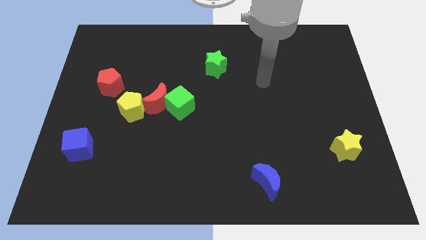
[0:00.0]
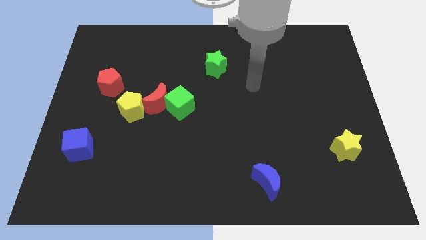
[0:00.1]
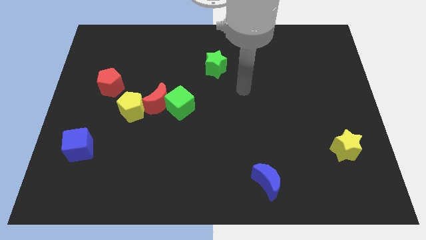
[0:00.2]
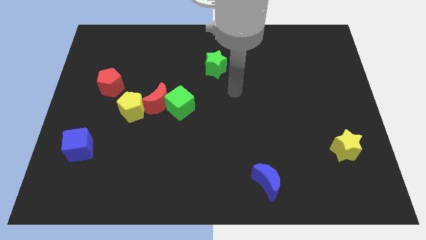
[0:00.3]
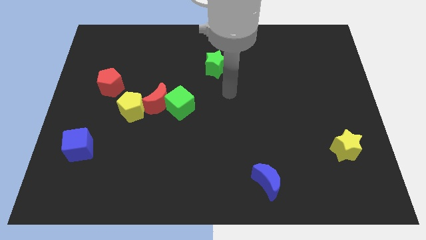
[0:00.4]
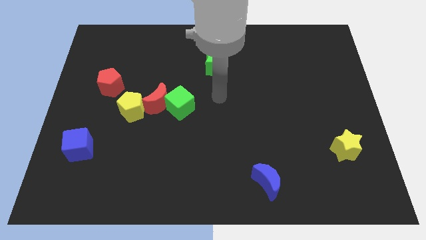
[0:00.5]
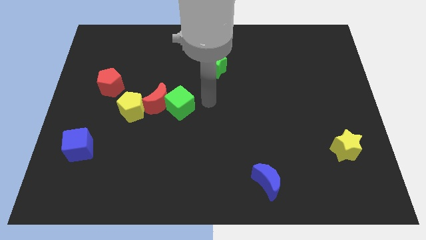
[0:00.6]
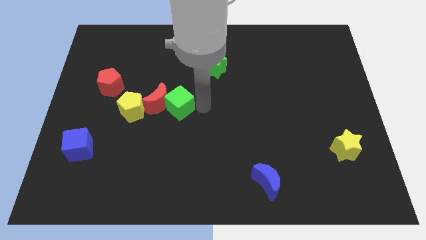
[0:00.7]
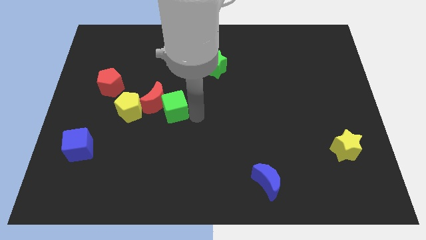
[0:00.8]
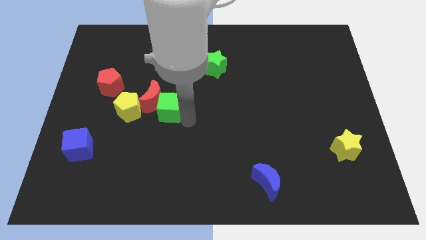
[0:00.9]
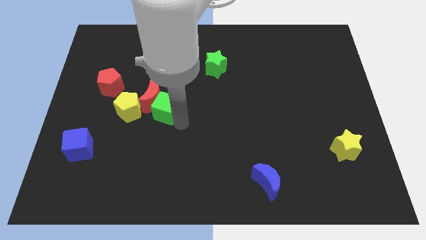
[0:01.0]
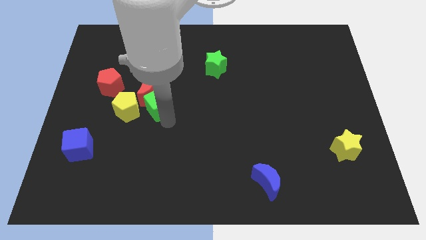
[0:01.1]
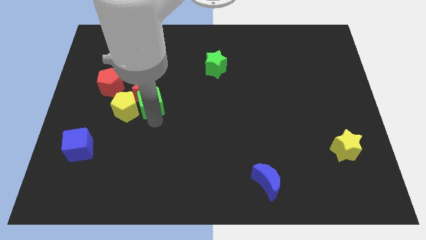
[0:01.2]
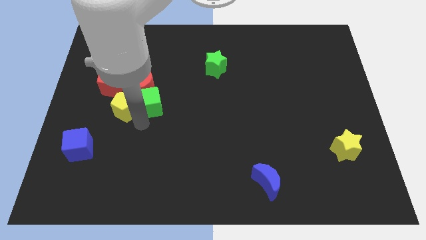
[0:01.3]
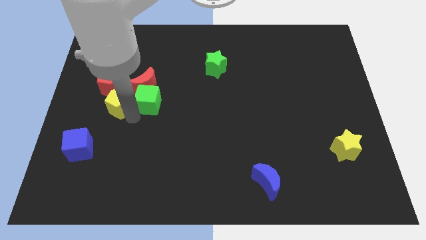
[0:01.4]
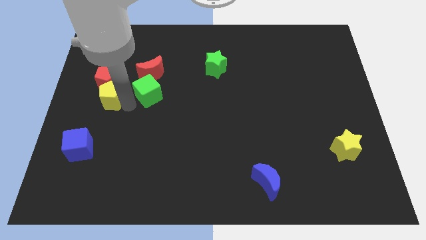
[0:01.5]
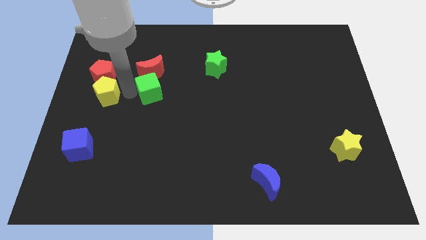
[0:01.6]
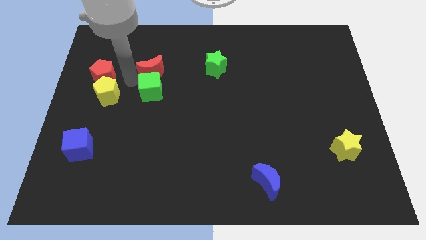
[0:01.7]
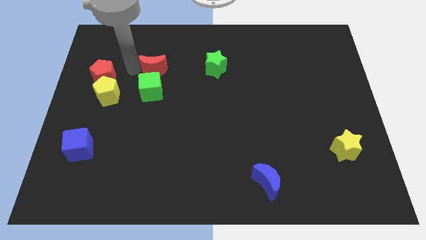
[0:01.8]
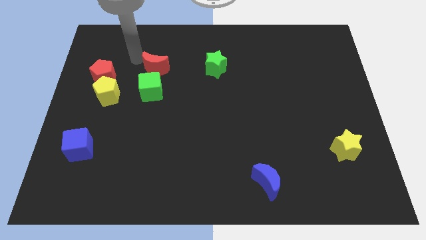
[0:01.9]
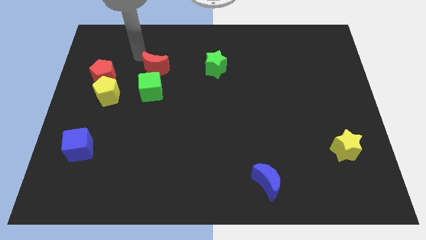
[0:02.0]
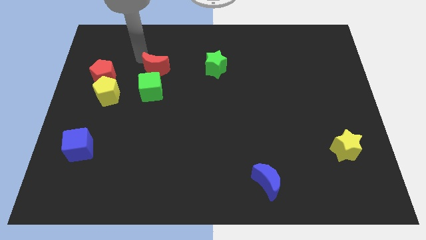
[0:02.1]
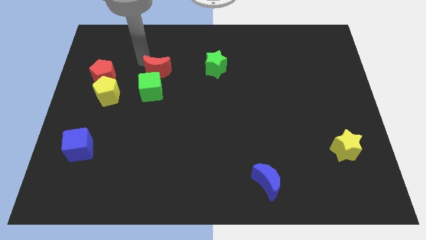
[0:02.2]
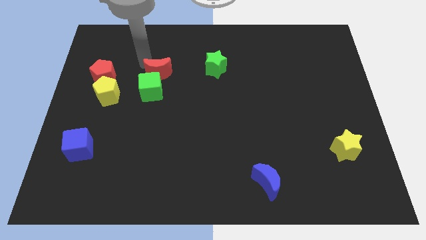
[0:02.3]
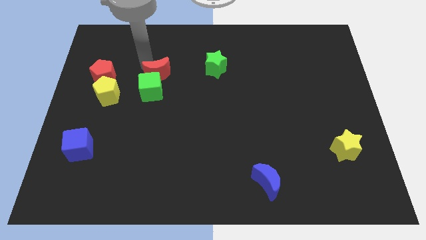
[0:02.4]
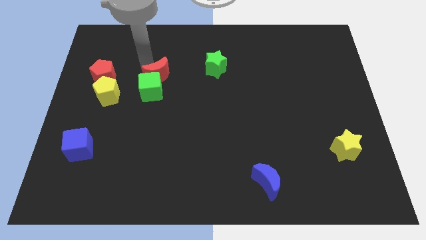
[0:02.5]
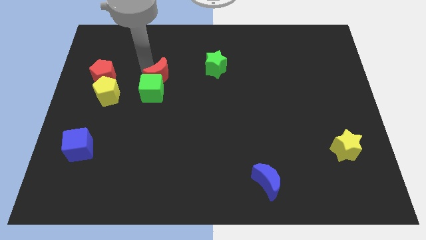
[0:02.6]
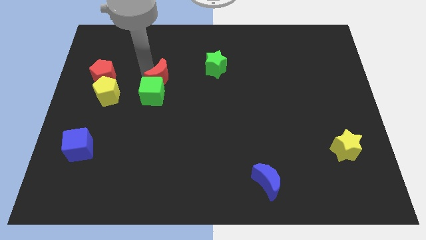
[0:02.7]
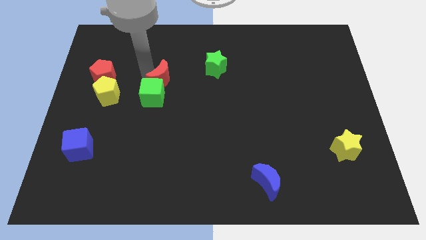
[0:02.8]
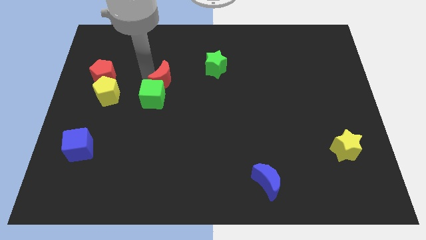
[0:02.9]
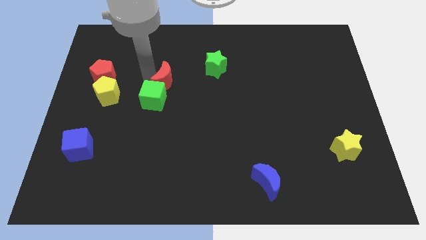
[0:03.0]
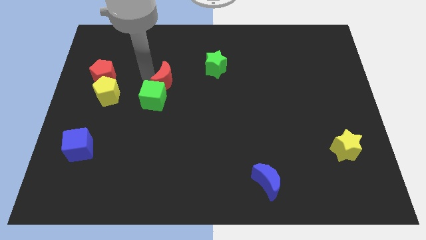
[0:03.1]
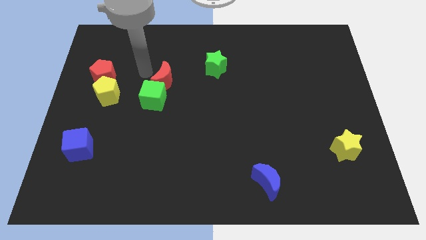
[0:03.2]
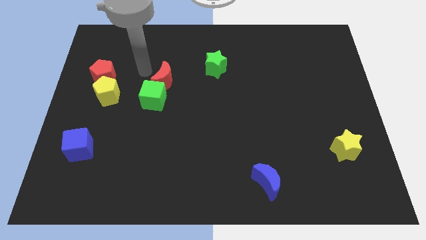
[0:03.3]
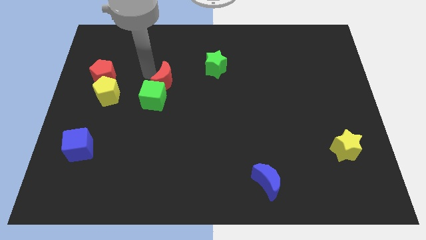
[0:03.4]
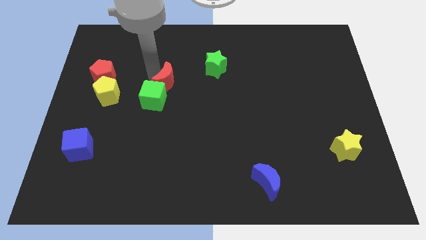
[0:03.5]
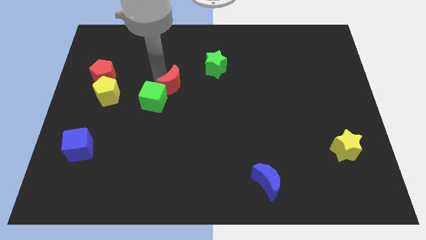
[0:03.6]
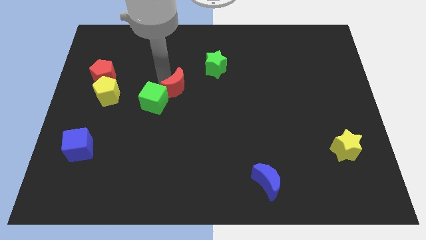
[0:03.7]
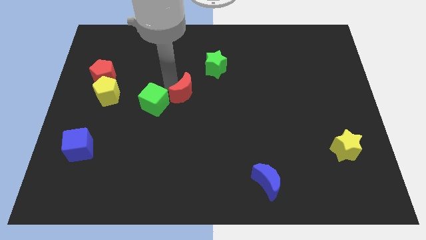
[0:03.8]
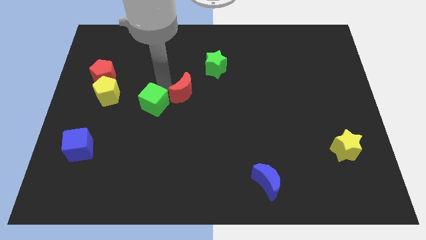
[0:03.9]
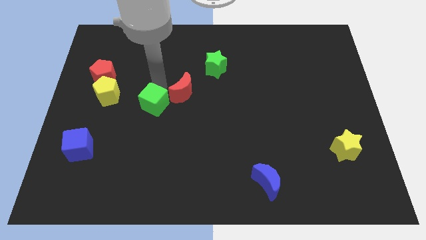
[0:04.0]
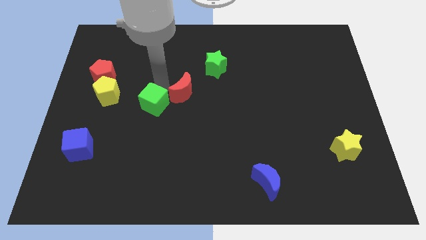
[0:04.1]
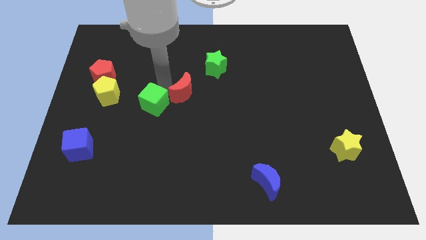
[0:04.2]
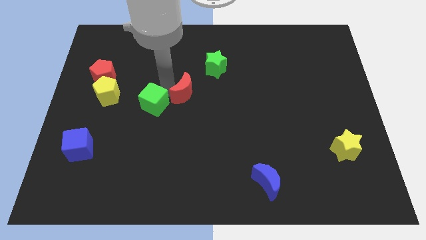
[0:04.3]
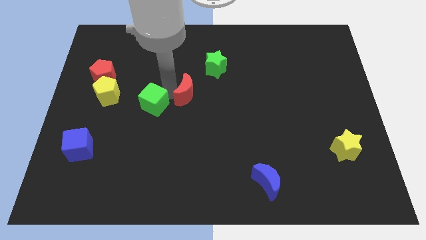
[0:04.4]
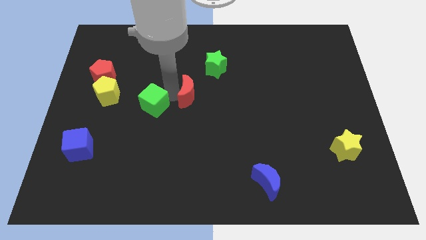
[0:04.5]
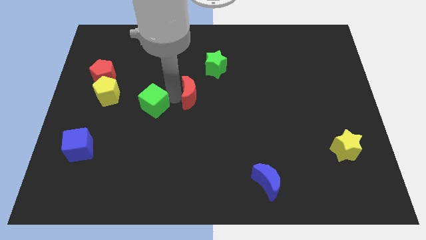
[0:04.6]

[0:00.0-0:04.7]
move the red moon slightly right

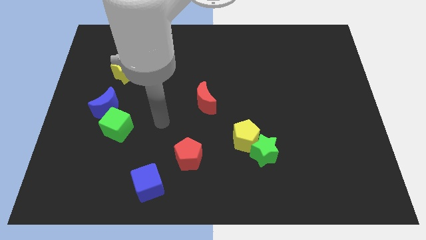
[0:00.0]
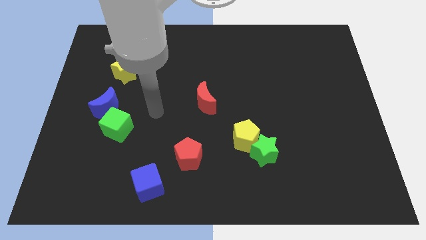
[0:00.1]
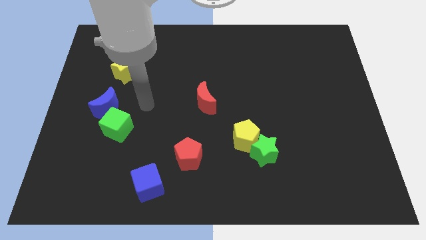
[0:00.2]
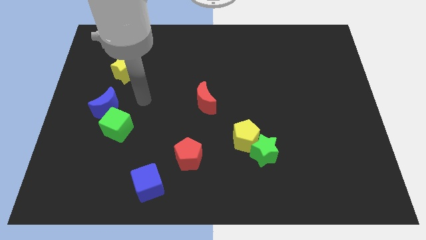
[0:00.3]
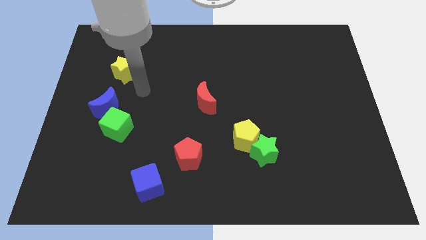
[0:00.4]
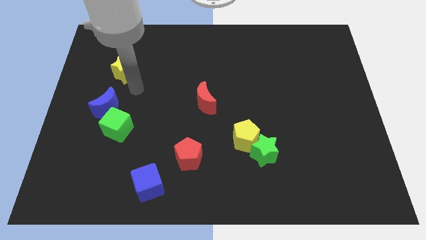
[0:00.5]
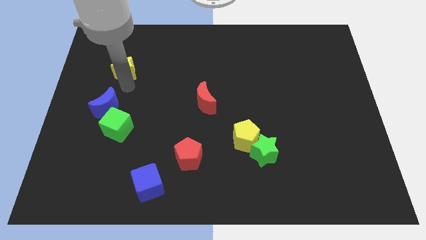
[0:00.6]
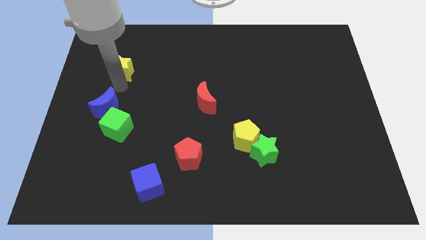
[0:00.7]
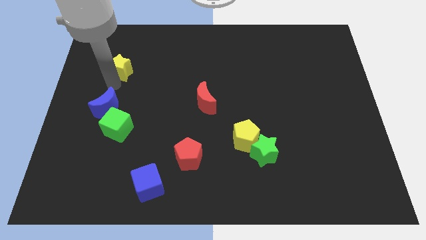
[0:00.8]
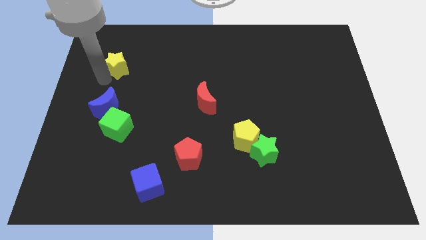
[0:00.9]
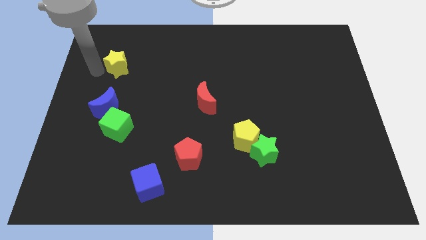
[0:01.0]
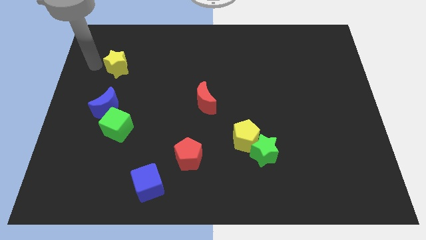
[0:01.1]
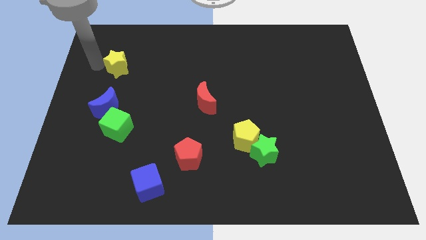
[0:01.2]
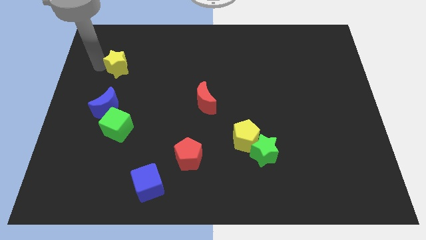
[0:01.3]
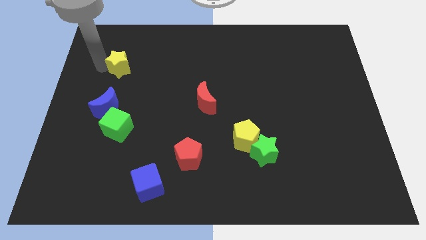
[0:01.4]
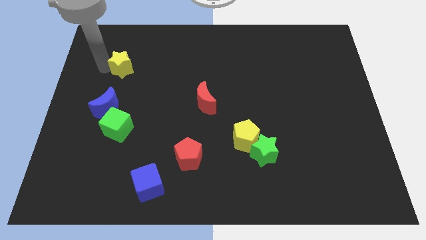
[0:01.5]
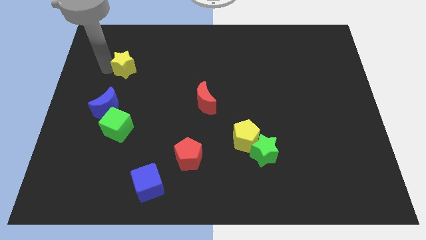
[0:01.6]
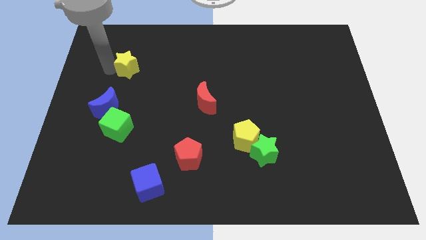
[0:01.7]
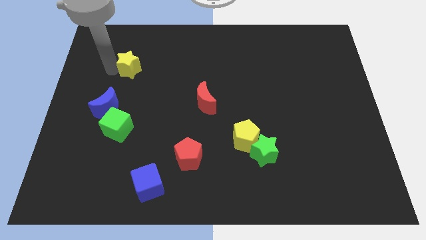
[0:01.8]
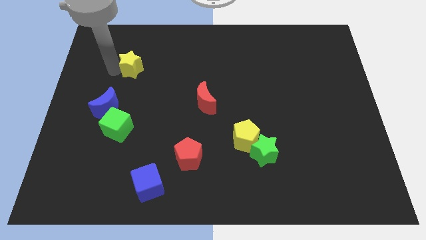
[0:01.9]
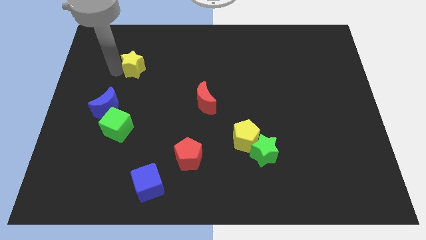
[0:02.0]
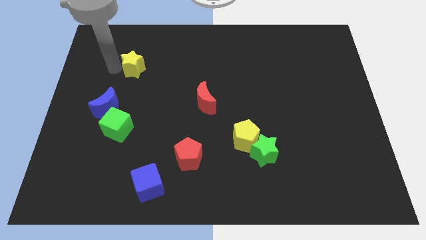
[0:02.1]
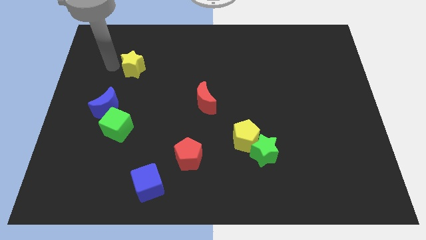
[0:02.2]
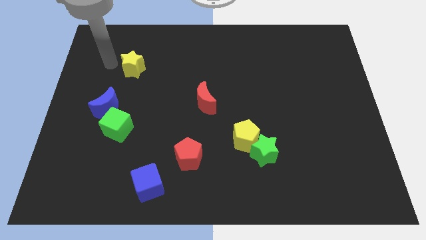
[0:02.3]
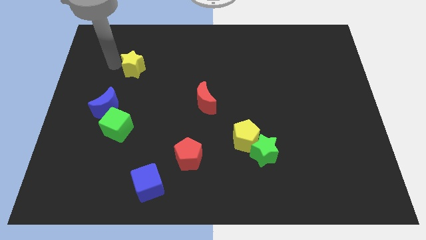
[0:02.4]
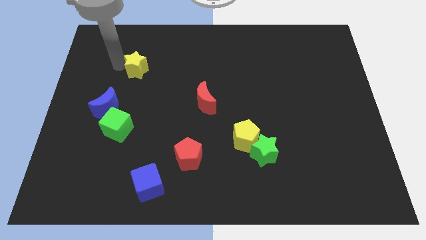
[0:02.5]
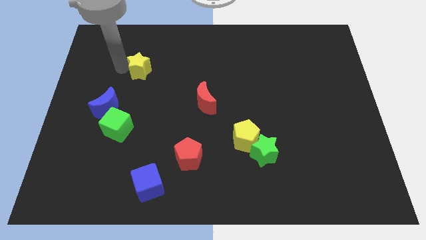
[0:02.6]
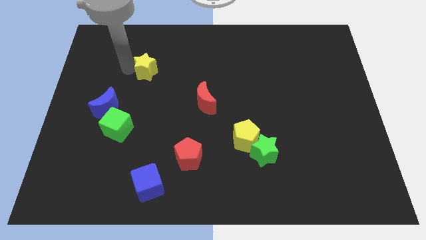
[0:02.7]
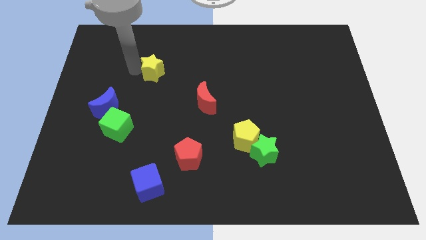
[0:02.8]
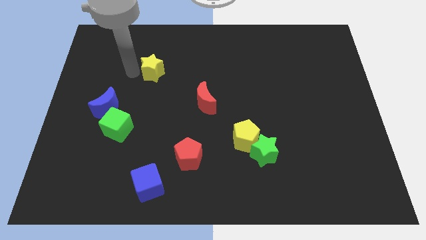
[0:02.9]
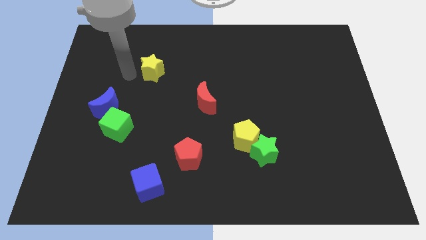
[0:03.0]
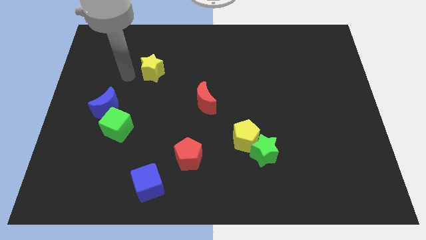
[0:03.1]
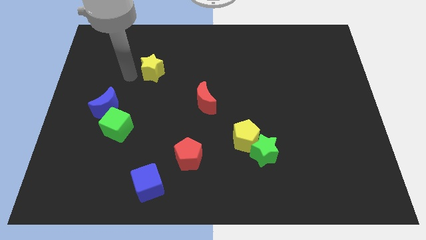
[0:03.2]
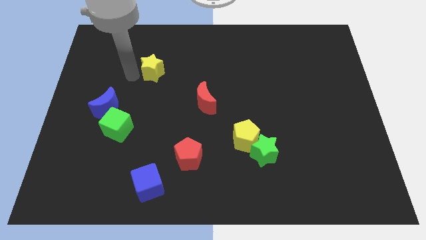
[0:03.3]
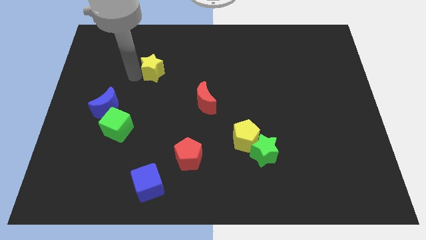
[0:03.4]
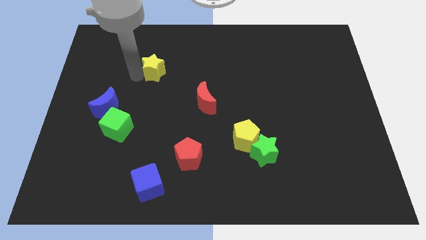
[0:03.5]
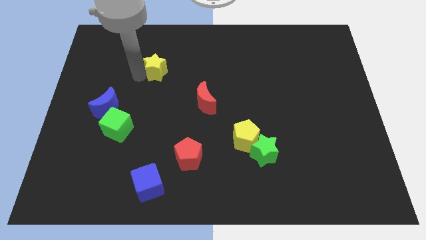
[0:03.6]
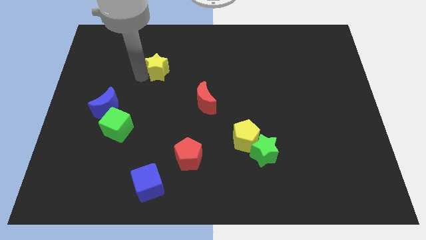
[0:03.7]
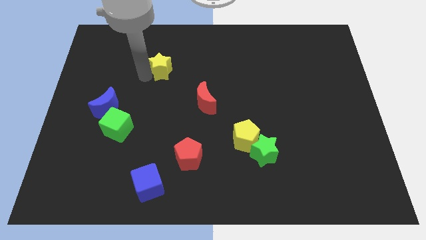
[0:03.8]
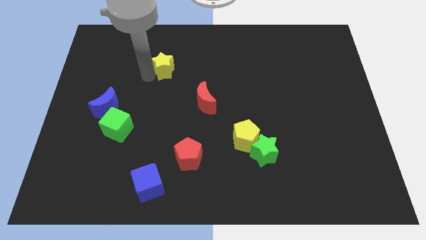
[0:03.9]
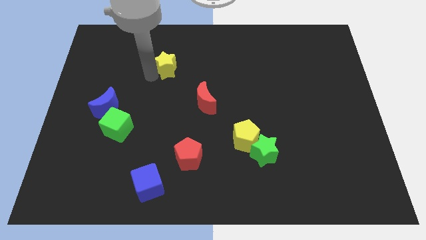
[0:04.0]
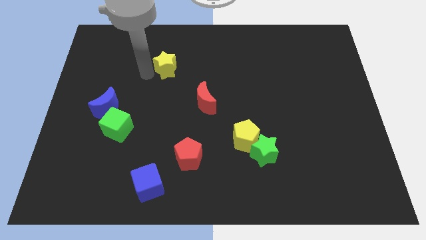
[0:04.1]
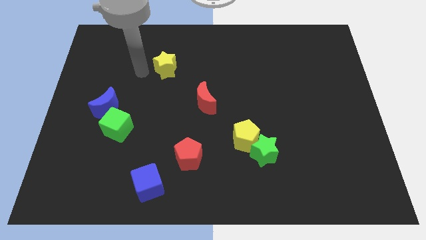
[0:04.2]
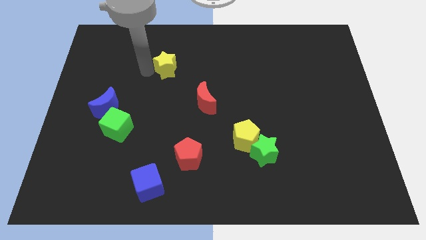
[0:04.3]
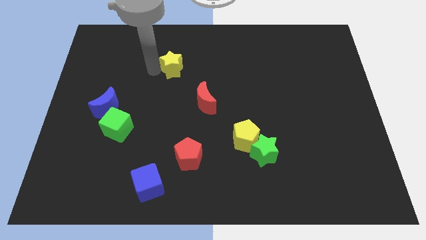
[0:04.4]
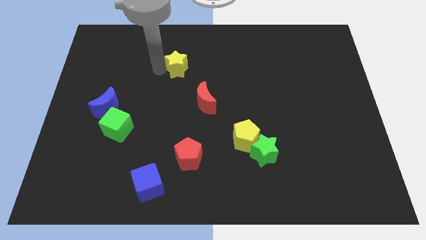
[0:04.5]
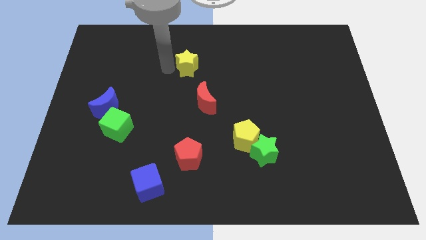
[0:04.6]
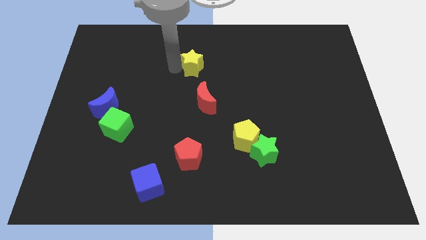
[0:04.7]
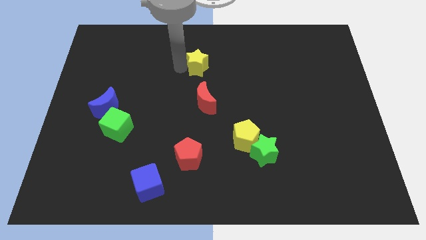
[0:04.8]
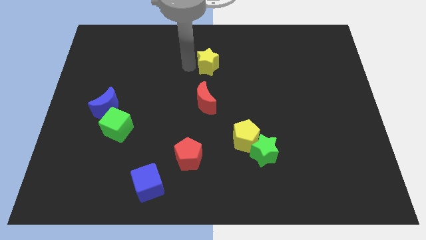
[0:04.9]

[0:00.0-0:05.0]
slide the yellow star right
